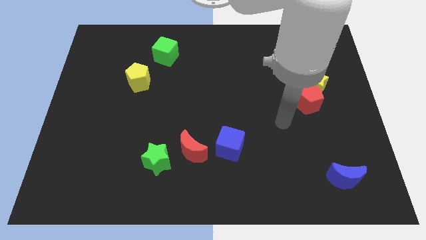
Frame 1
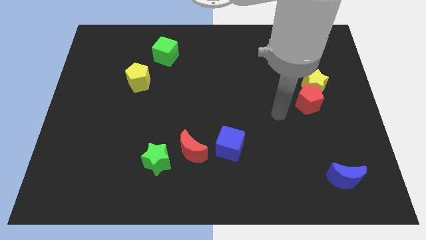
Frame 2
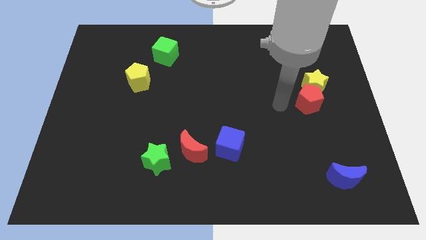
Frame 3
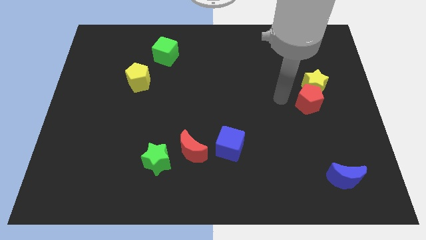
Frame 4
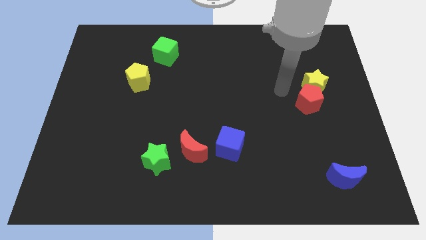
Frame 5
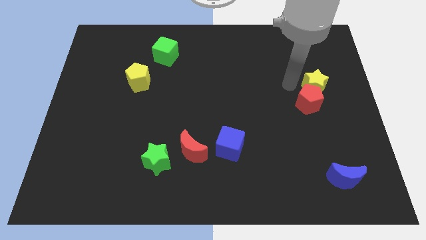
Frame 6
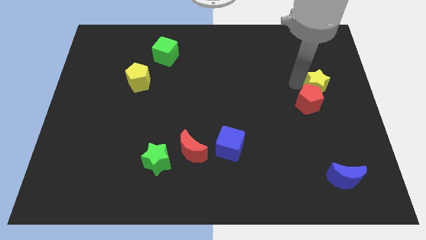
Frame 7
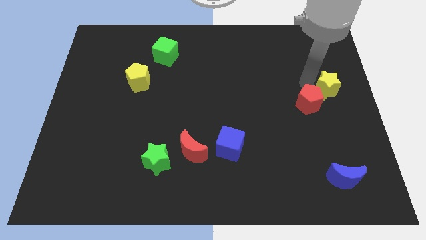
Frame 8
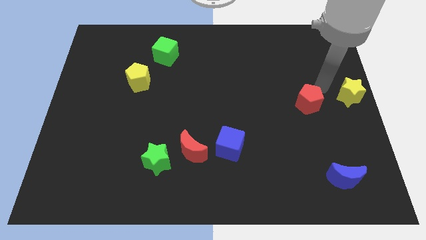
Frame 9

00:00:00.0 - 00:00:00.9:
separate the red pentagon from the yellow star

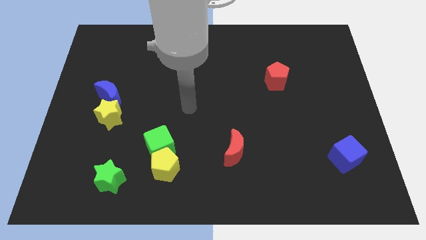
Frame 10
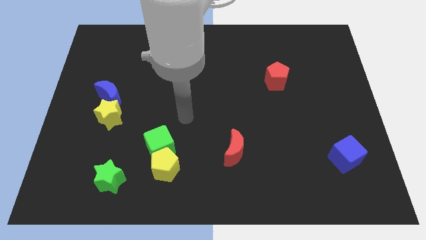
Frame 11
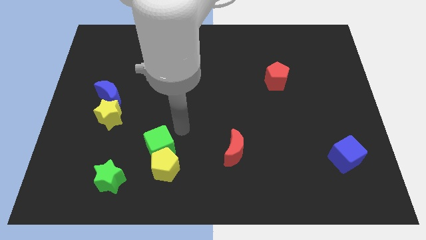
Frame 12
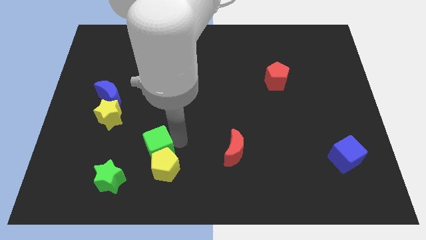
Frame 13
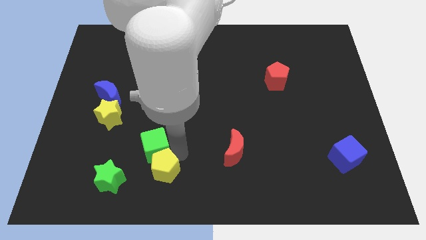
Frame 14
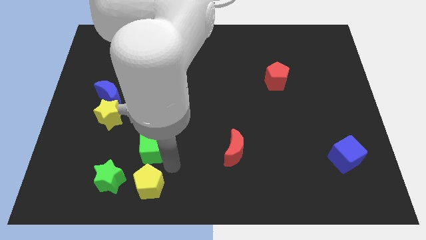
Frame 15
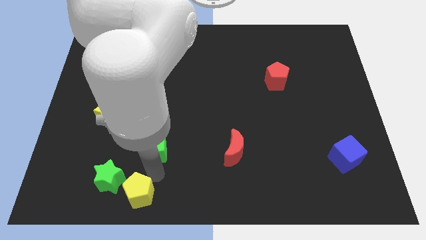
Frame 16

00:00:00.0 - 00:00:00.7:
separate the green cube from the yellow pentagon

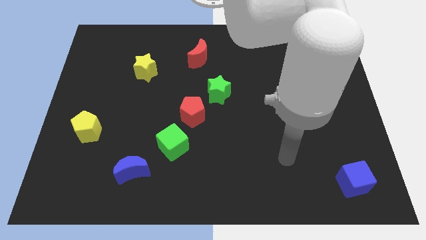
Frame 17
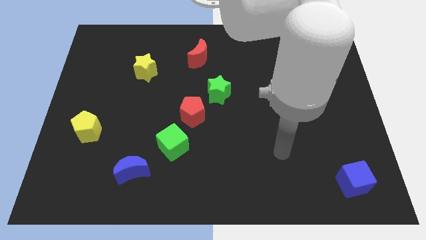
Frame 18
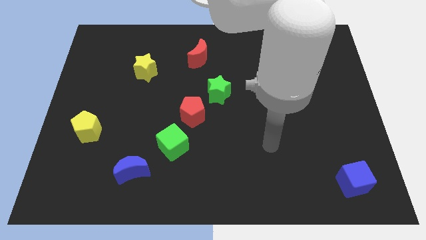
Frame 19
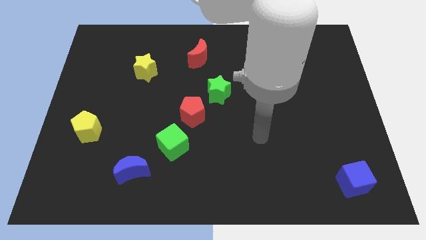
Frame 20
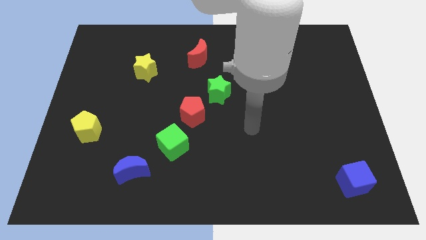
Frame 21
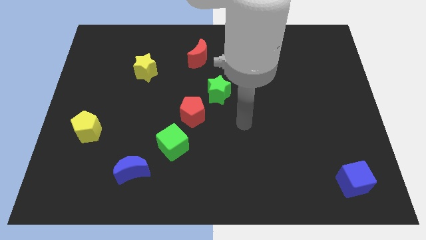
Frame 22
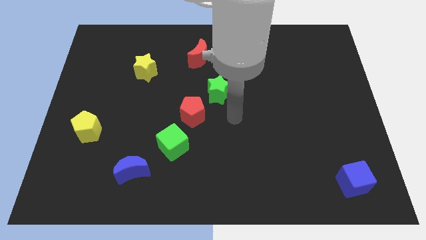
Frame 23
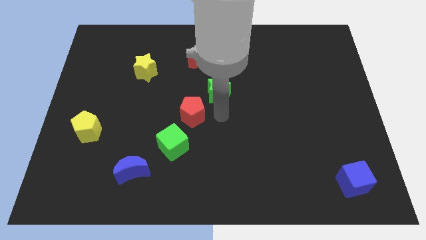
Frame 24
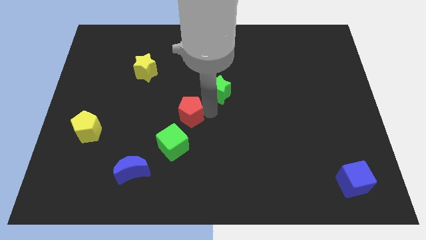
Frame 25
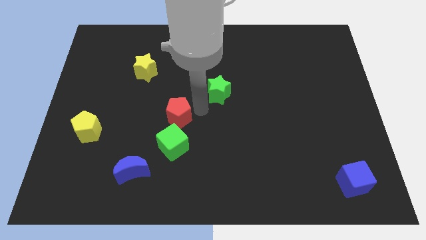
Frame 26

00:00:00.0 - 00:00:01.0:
move the green star away from the red pentagon

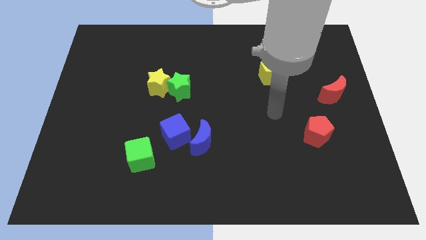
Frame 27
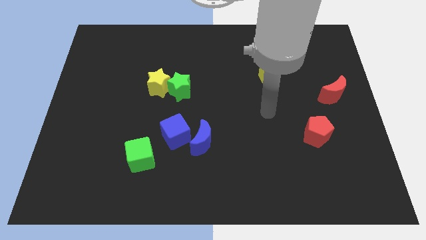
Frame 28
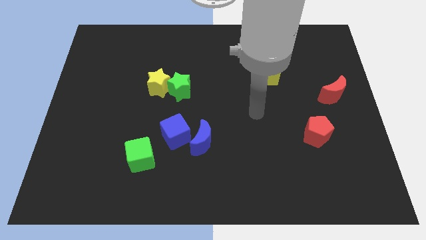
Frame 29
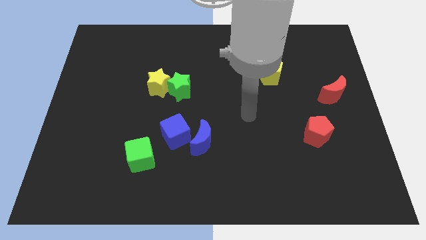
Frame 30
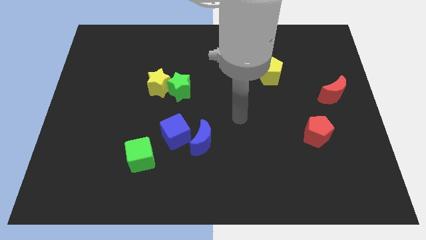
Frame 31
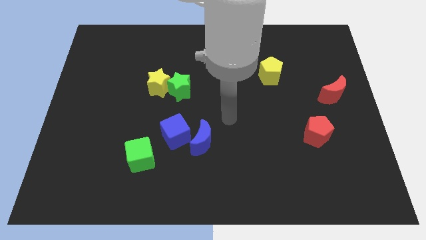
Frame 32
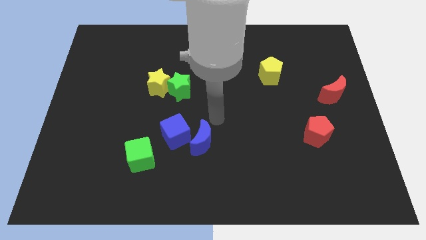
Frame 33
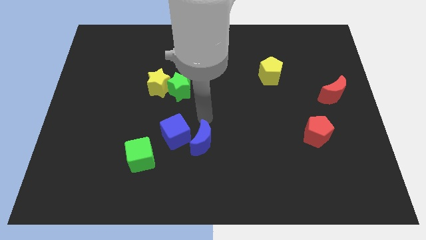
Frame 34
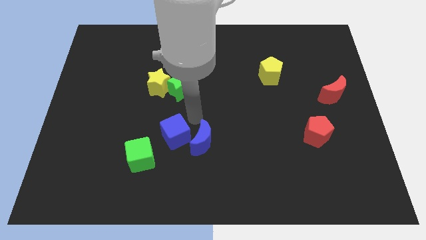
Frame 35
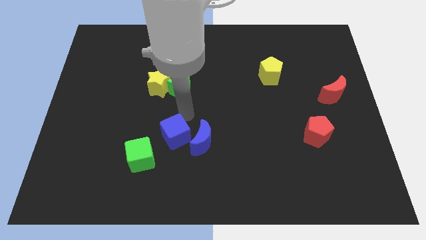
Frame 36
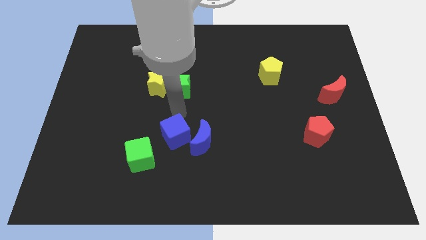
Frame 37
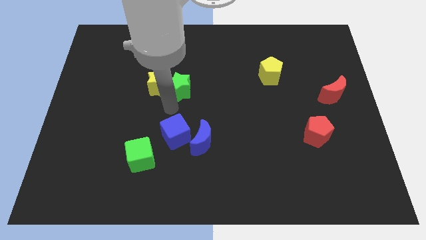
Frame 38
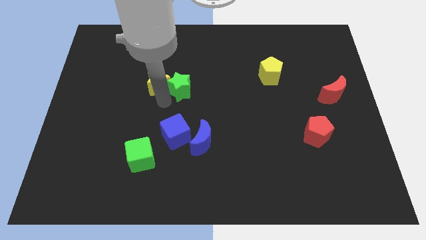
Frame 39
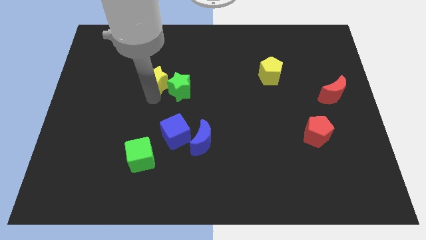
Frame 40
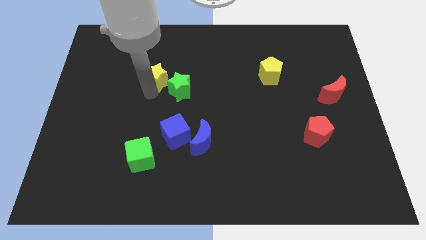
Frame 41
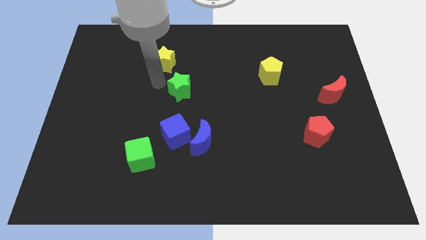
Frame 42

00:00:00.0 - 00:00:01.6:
separate the green star from the yellow star

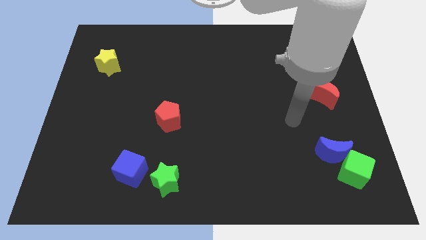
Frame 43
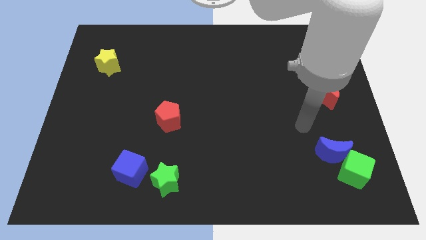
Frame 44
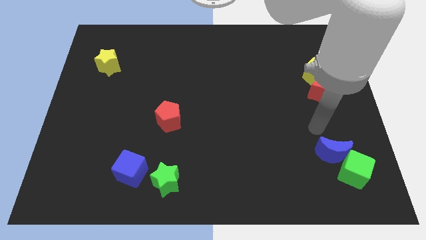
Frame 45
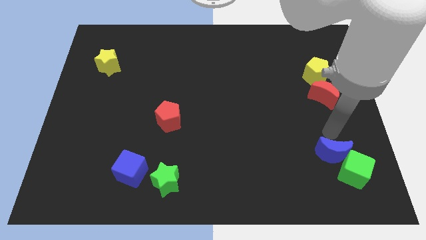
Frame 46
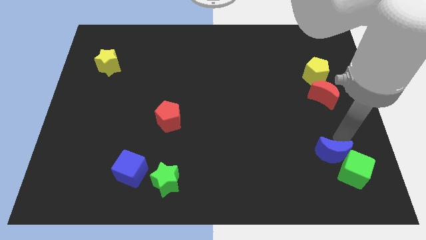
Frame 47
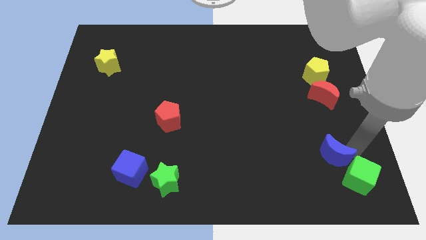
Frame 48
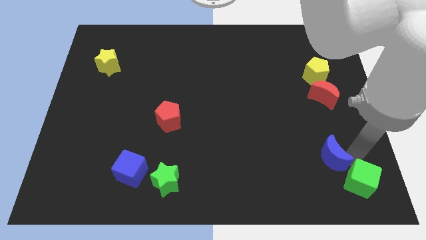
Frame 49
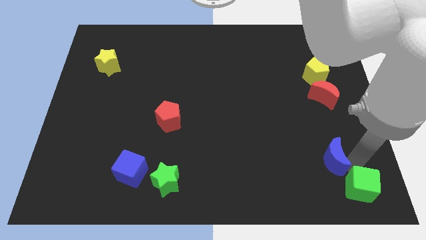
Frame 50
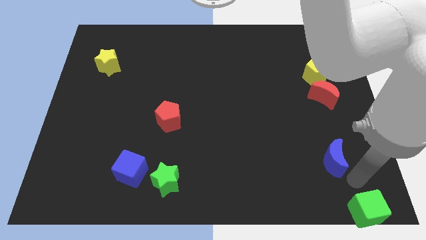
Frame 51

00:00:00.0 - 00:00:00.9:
move the blue moon away from the green cube

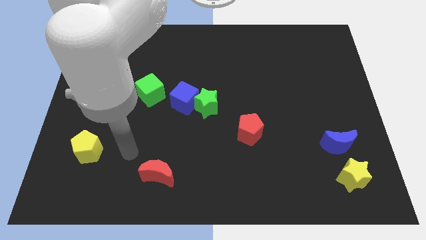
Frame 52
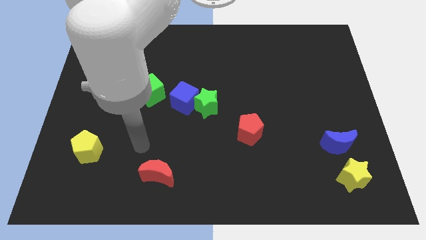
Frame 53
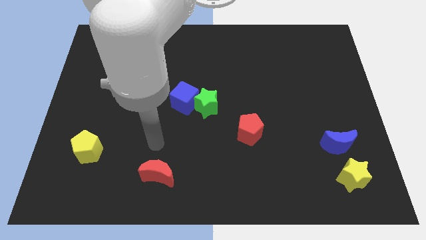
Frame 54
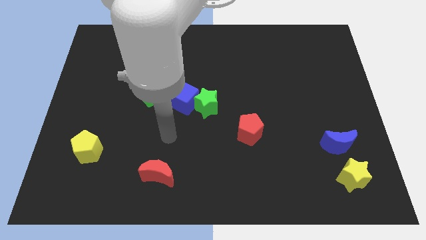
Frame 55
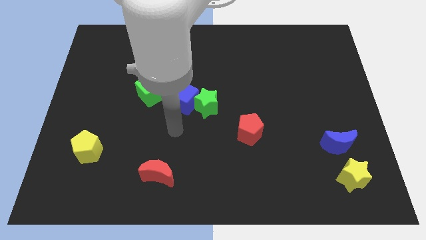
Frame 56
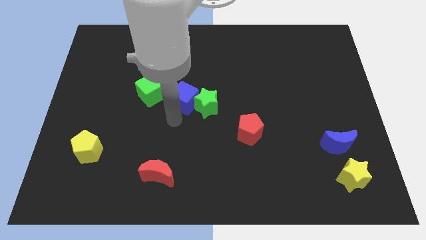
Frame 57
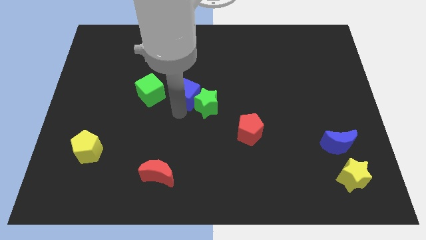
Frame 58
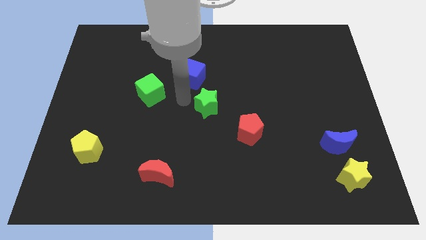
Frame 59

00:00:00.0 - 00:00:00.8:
separate the green star from the blue cube

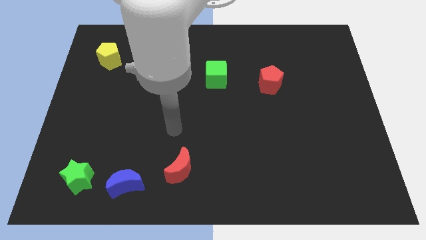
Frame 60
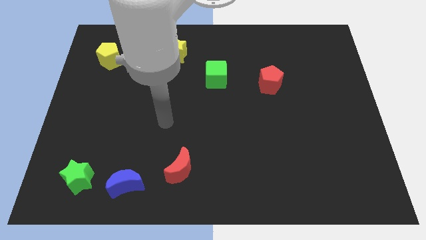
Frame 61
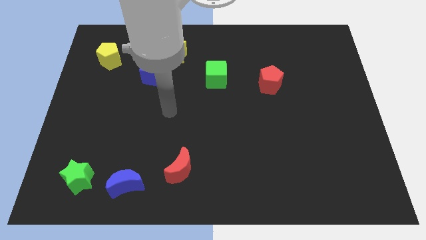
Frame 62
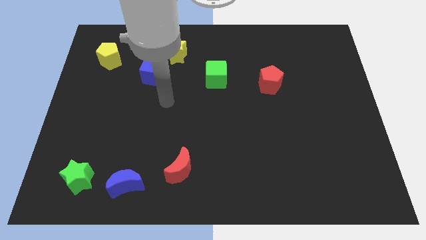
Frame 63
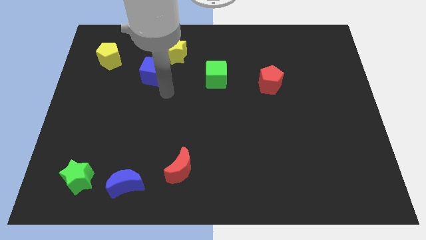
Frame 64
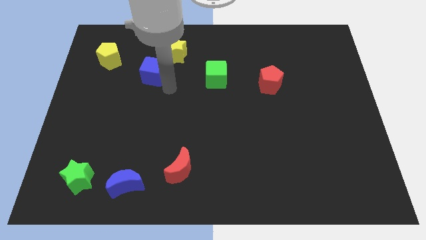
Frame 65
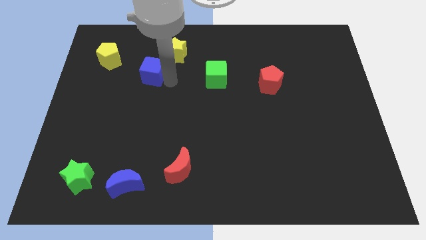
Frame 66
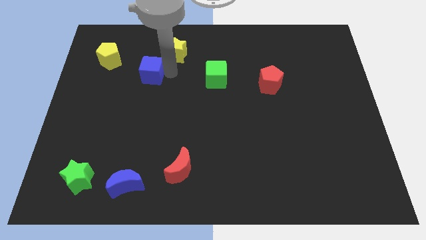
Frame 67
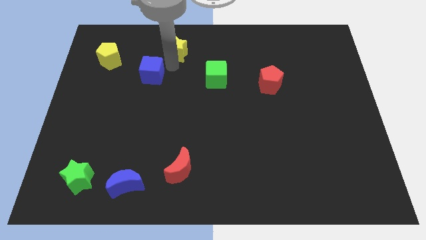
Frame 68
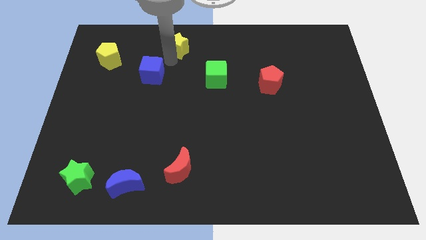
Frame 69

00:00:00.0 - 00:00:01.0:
pull the blue cube apart from the yellow star

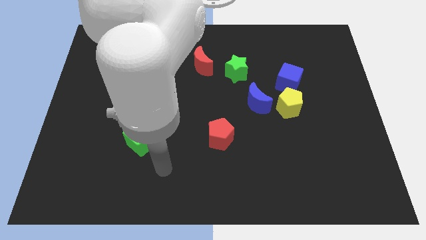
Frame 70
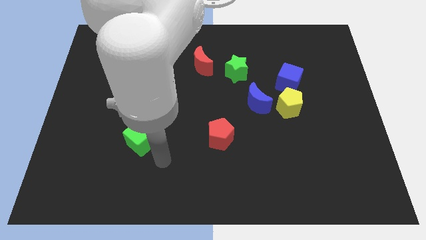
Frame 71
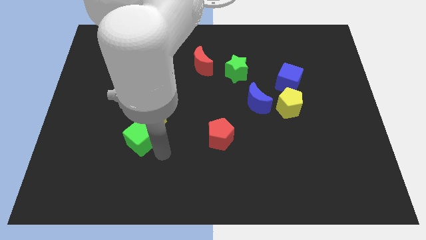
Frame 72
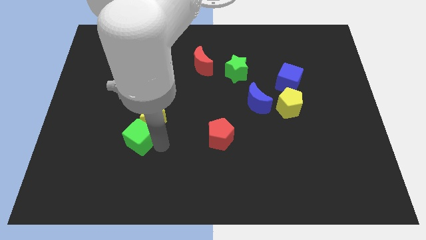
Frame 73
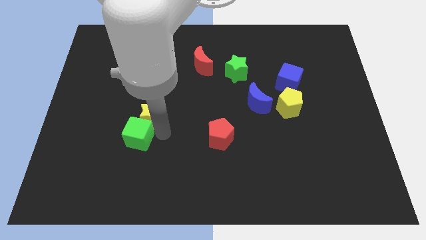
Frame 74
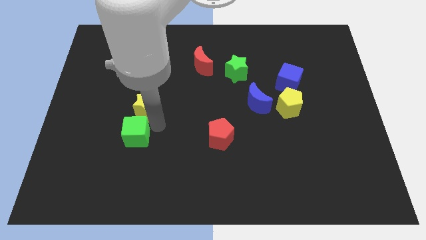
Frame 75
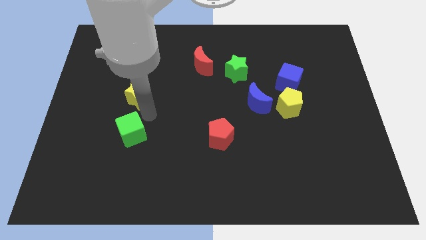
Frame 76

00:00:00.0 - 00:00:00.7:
pull the green cube apart from the yellow star

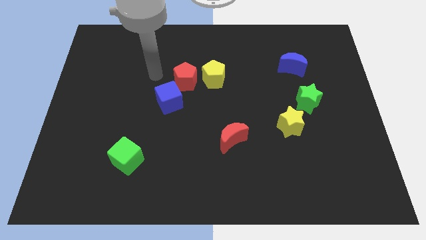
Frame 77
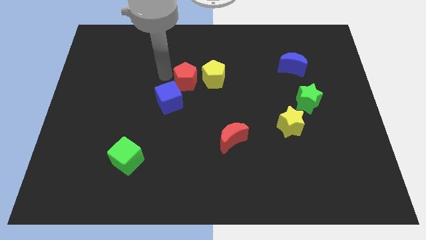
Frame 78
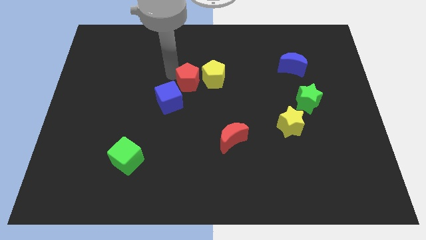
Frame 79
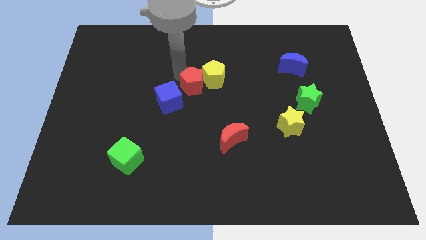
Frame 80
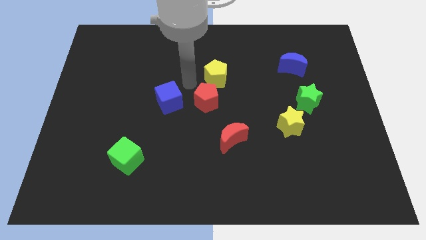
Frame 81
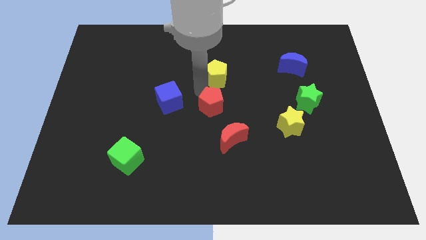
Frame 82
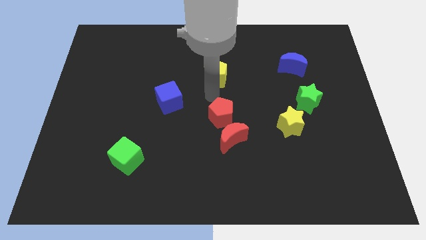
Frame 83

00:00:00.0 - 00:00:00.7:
separate the yellow pentagon from the red pentagon

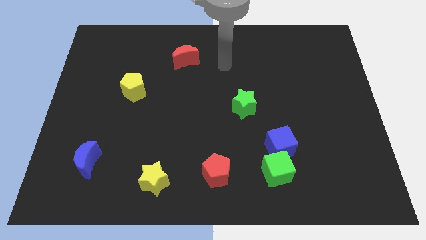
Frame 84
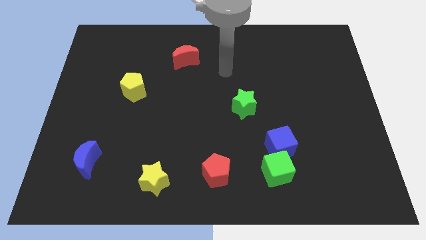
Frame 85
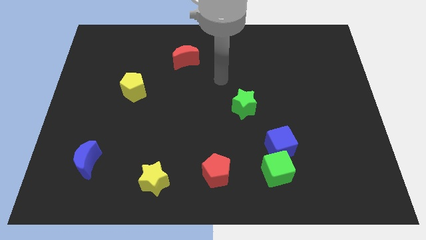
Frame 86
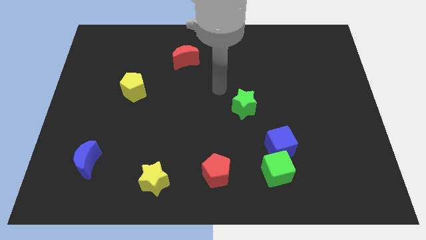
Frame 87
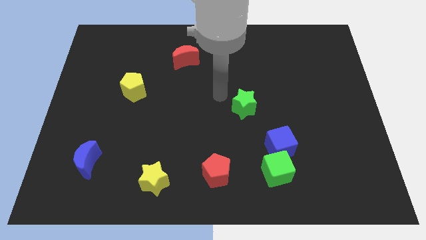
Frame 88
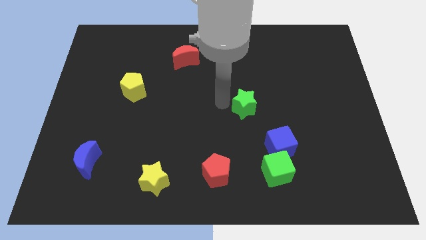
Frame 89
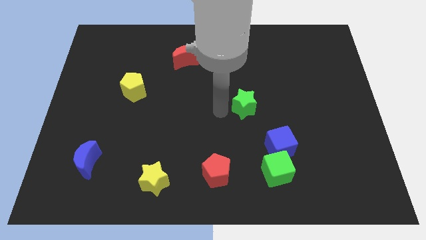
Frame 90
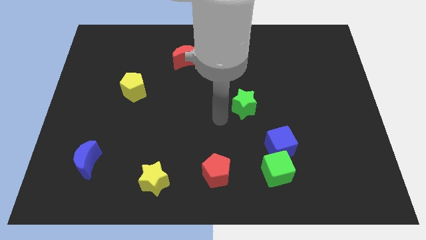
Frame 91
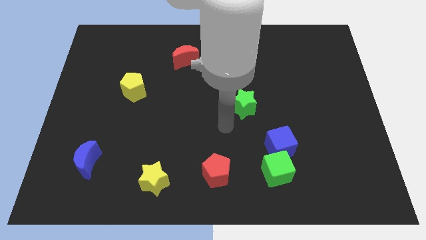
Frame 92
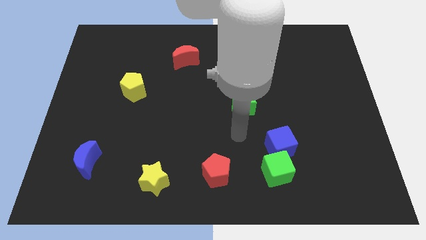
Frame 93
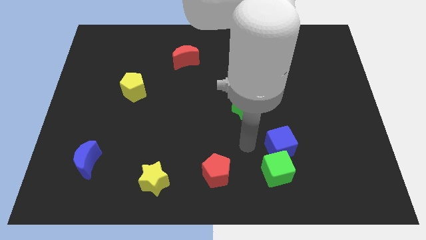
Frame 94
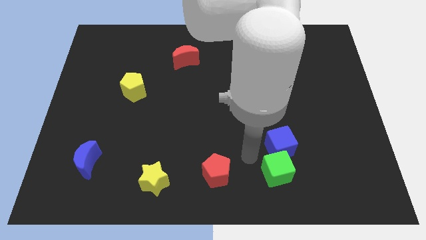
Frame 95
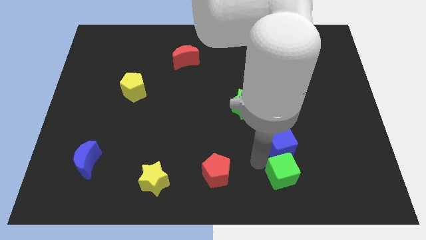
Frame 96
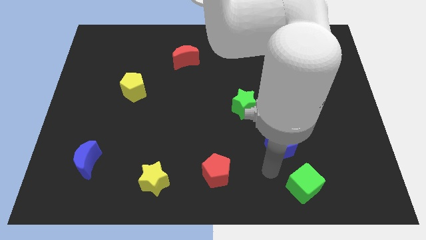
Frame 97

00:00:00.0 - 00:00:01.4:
move the blue cube away from the green cube
